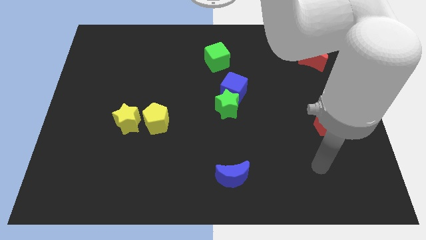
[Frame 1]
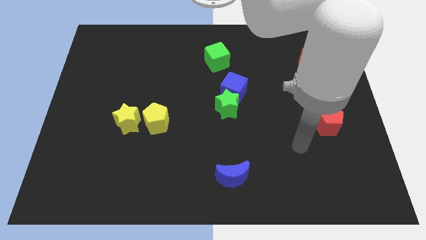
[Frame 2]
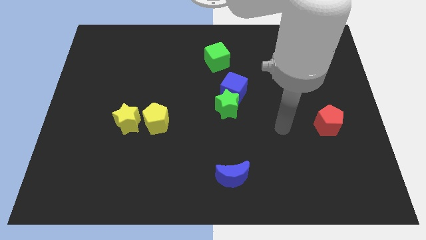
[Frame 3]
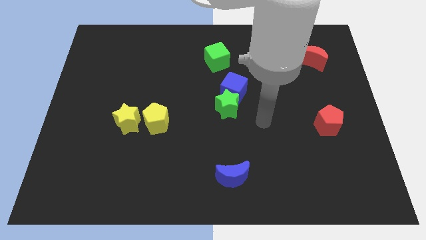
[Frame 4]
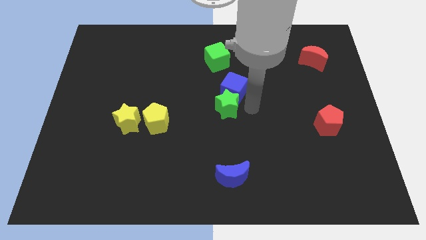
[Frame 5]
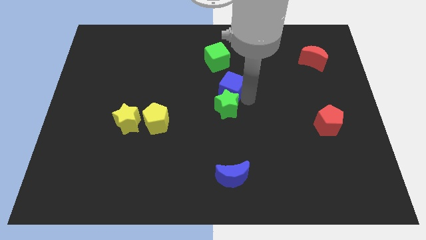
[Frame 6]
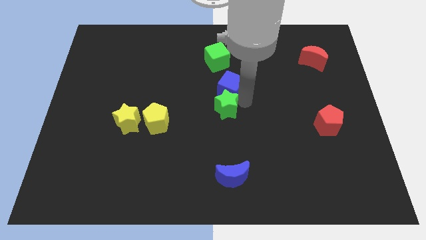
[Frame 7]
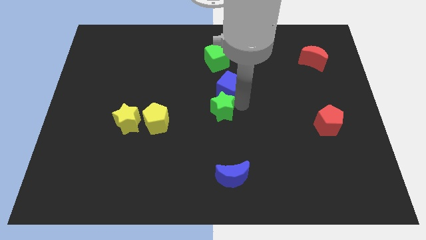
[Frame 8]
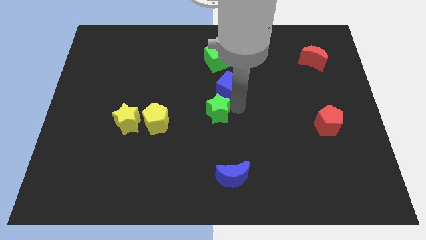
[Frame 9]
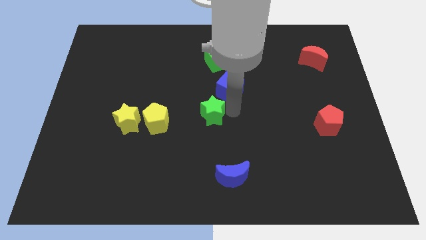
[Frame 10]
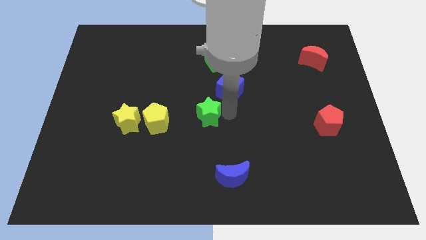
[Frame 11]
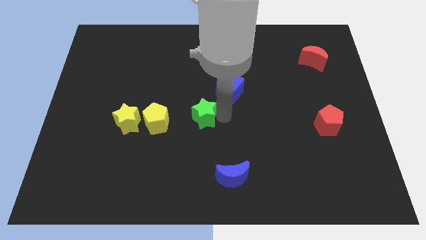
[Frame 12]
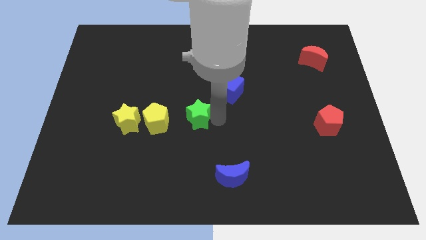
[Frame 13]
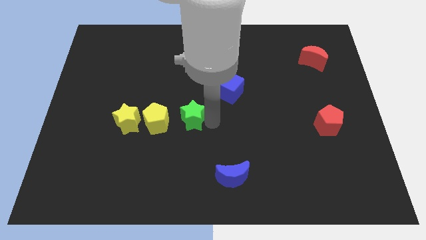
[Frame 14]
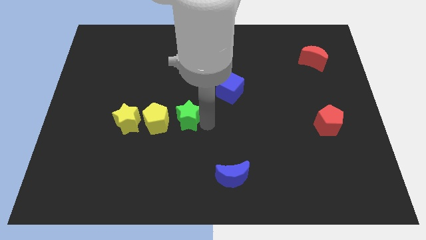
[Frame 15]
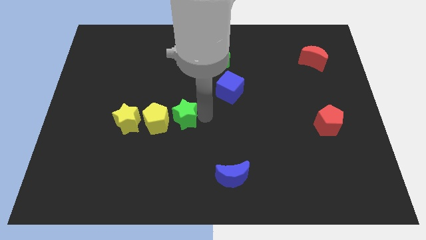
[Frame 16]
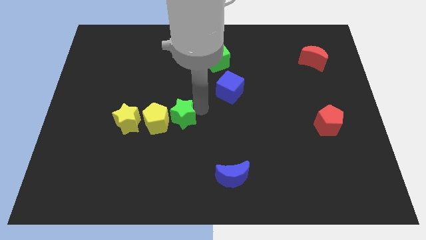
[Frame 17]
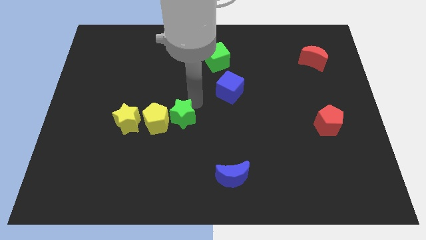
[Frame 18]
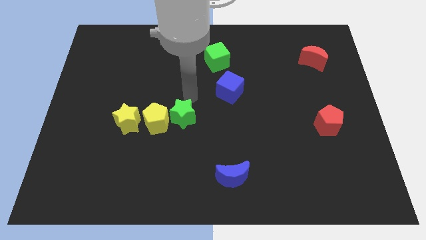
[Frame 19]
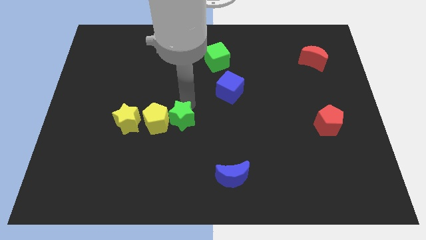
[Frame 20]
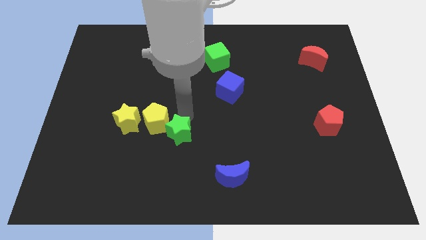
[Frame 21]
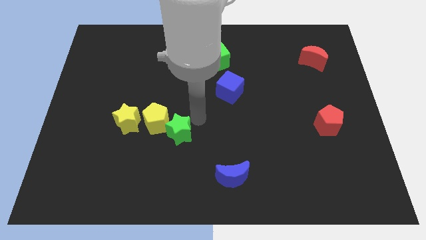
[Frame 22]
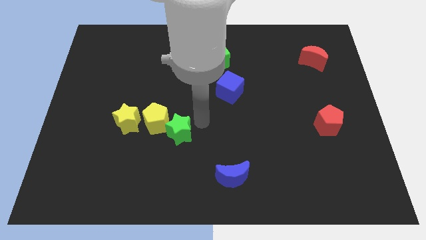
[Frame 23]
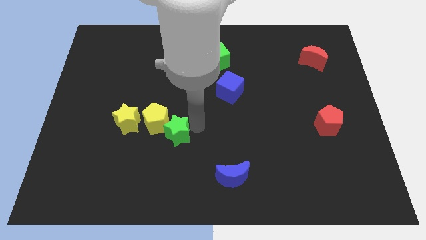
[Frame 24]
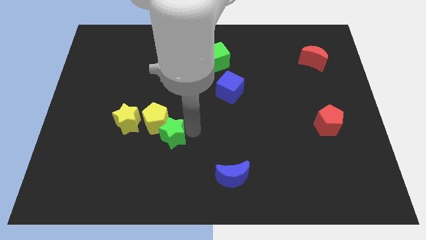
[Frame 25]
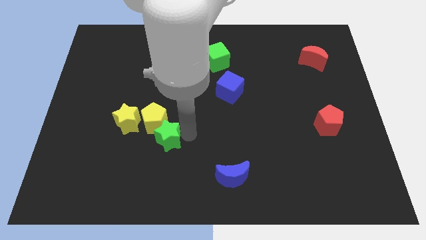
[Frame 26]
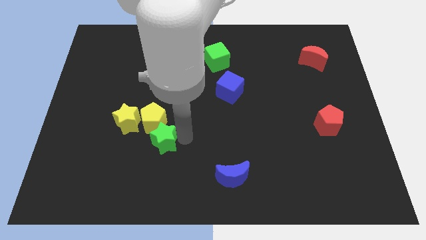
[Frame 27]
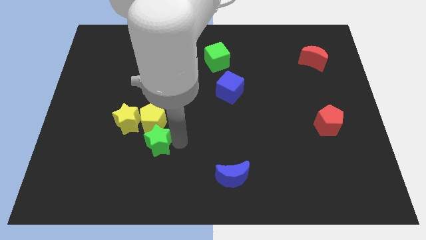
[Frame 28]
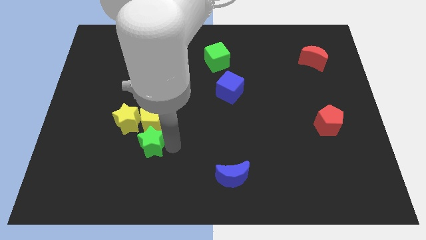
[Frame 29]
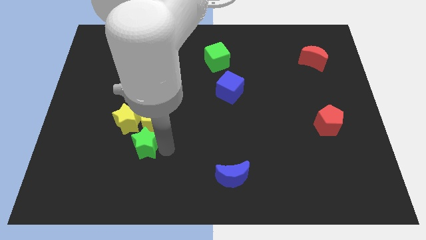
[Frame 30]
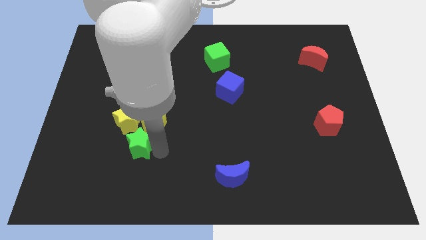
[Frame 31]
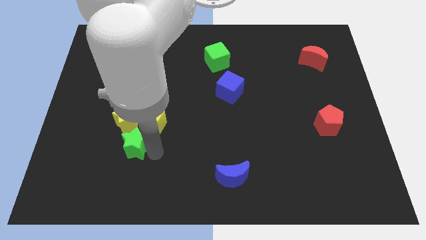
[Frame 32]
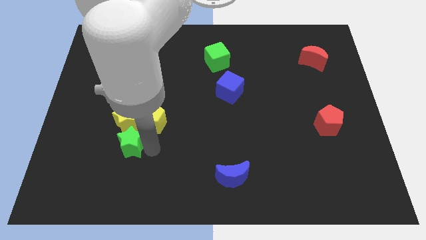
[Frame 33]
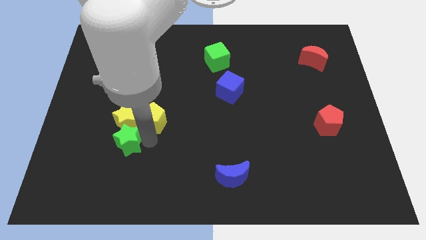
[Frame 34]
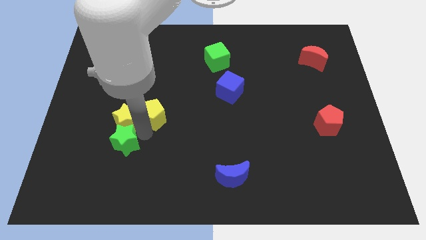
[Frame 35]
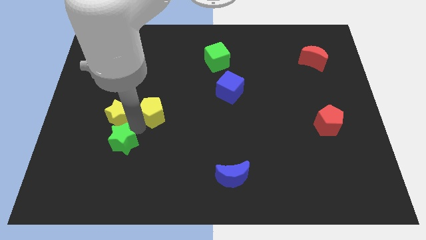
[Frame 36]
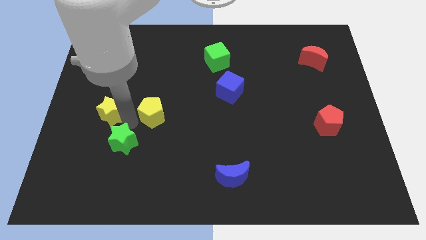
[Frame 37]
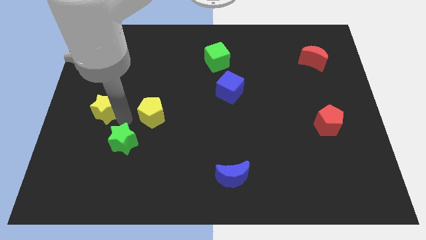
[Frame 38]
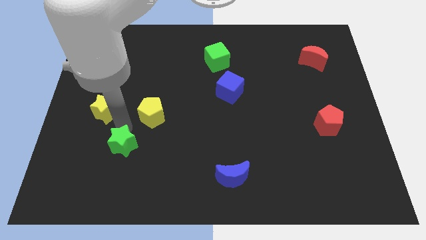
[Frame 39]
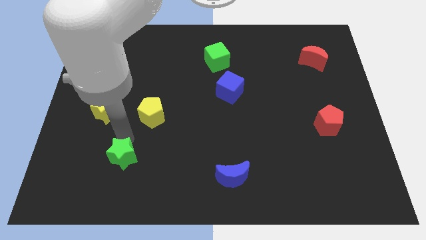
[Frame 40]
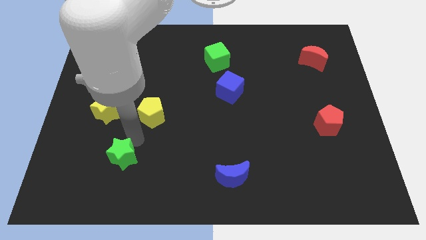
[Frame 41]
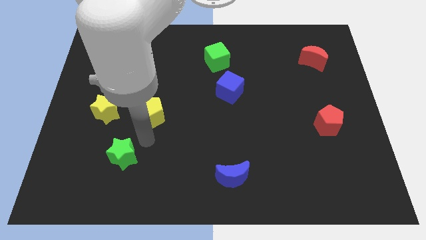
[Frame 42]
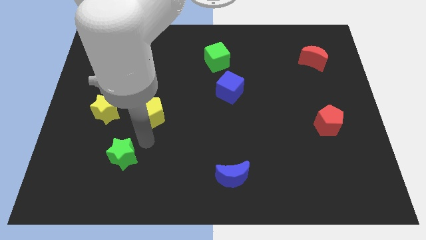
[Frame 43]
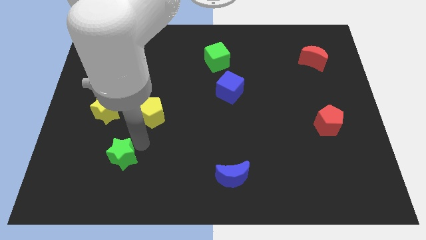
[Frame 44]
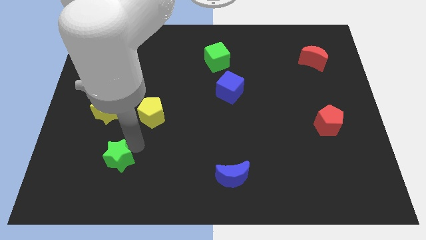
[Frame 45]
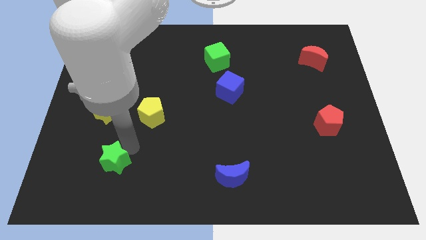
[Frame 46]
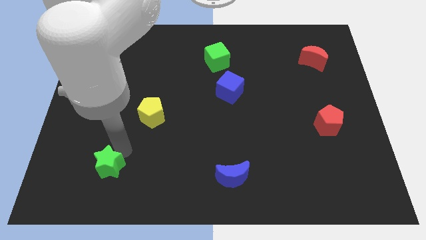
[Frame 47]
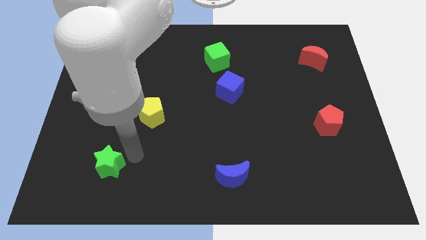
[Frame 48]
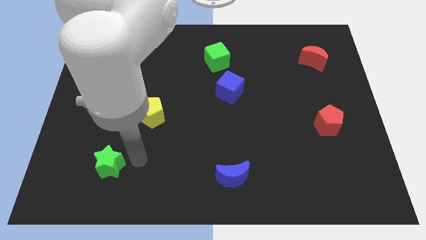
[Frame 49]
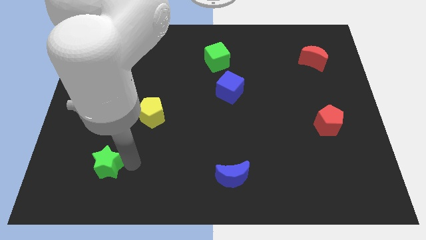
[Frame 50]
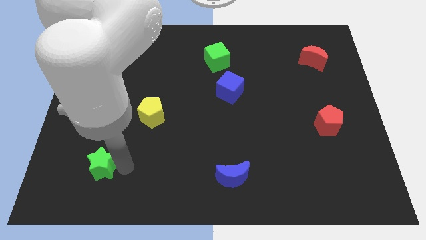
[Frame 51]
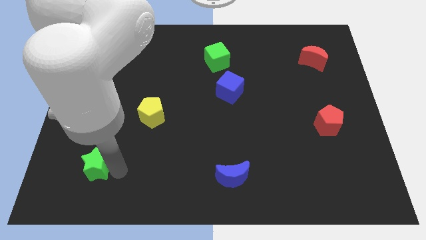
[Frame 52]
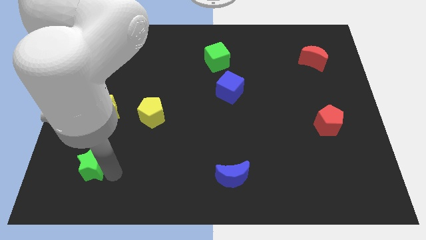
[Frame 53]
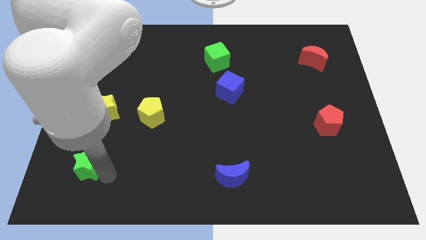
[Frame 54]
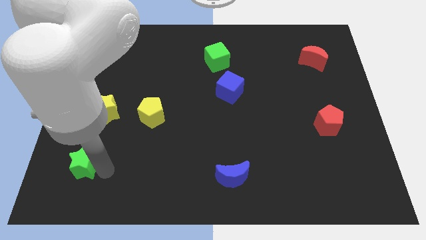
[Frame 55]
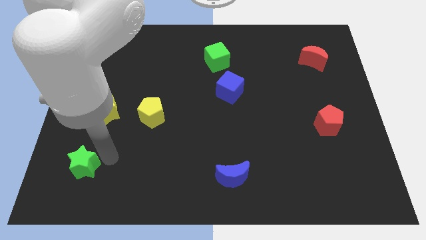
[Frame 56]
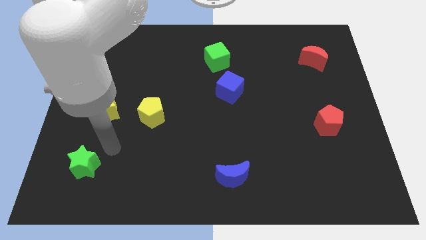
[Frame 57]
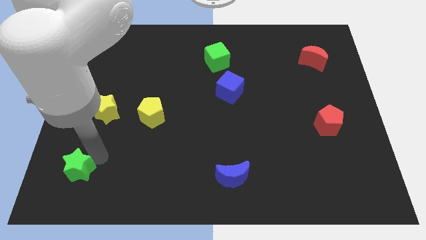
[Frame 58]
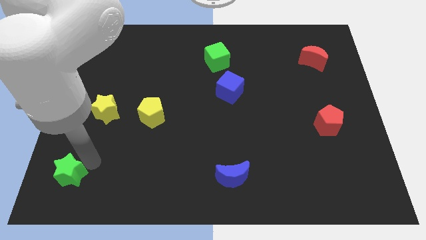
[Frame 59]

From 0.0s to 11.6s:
push the green star to the bottom left of the board

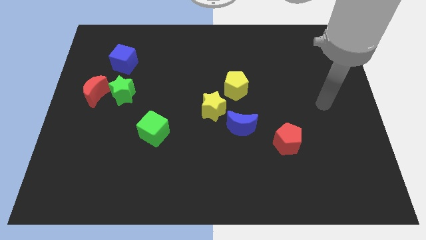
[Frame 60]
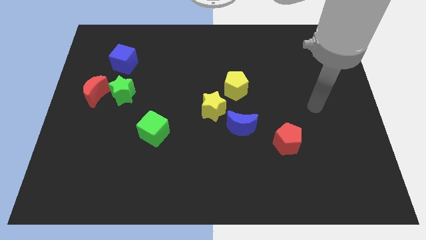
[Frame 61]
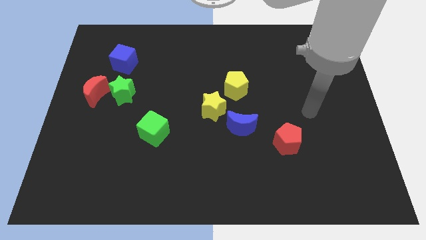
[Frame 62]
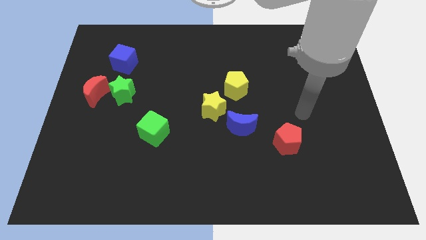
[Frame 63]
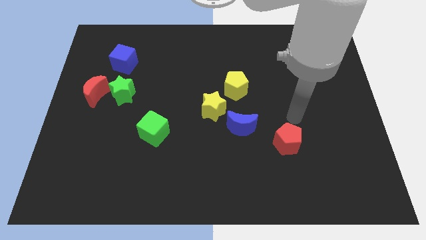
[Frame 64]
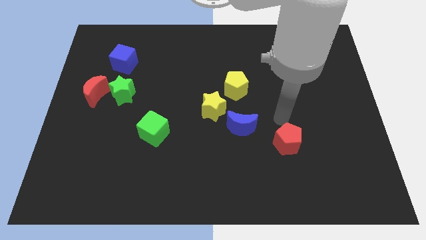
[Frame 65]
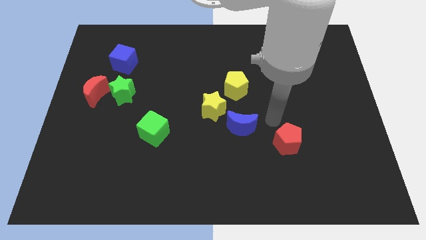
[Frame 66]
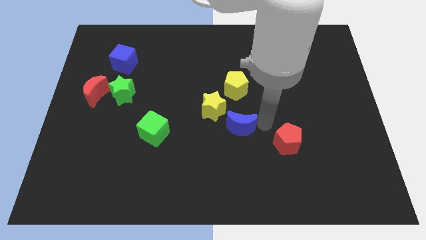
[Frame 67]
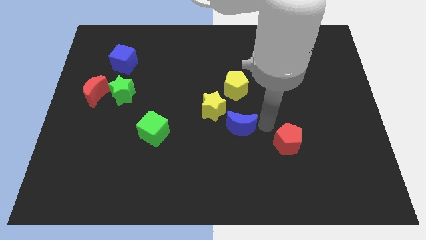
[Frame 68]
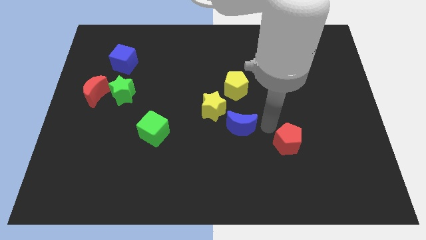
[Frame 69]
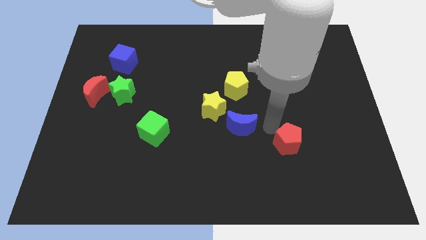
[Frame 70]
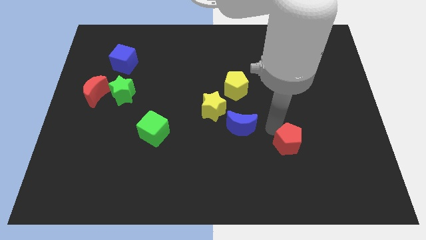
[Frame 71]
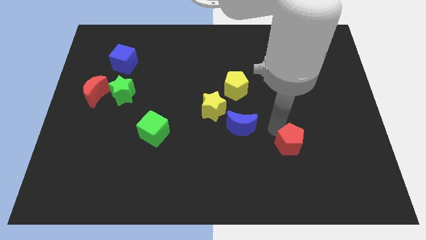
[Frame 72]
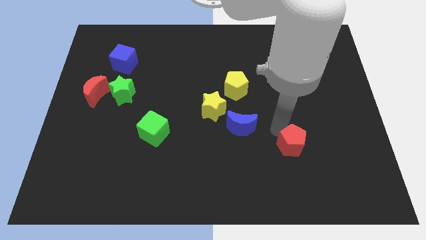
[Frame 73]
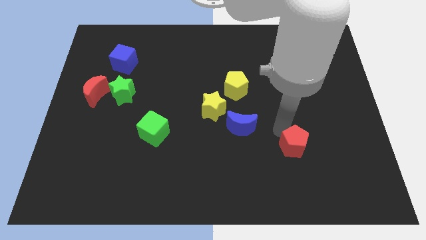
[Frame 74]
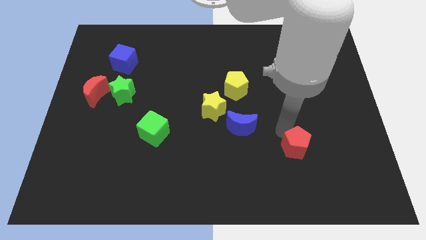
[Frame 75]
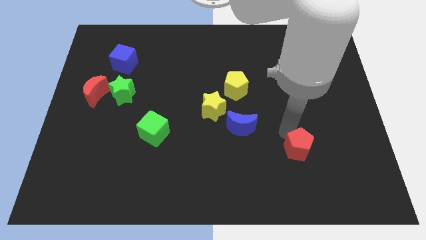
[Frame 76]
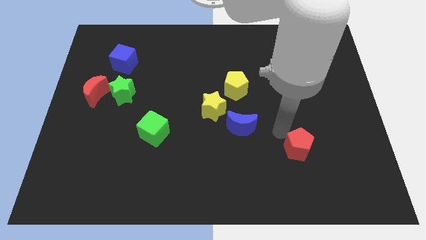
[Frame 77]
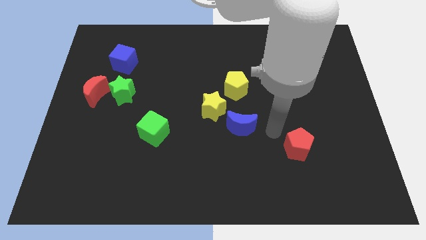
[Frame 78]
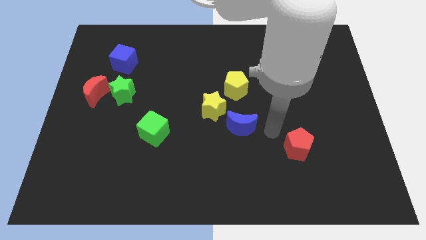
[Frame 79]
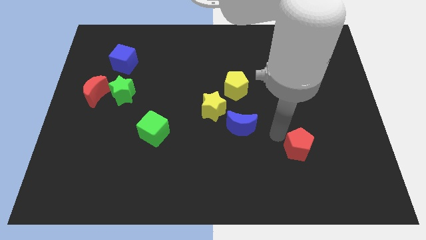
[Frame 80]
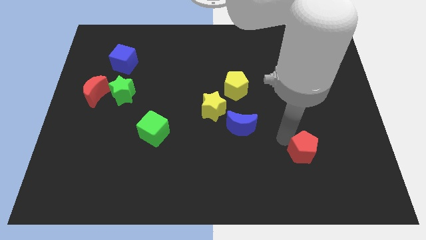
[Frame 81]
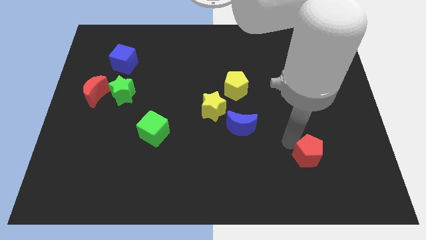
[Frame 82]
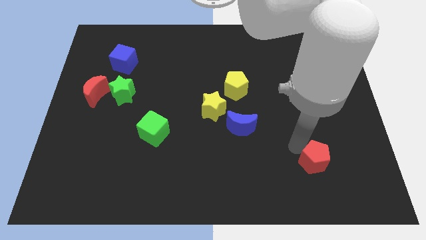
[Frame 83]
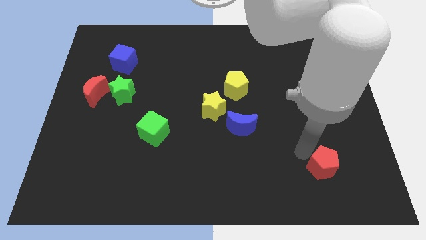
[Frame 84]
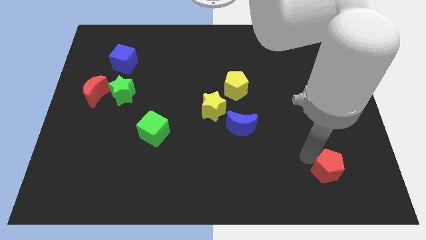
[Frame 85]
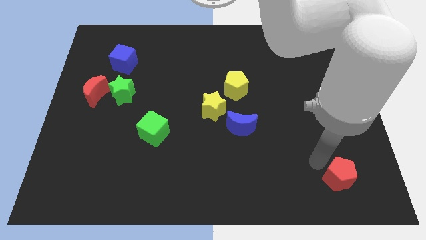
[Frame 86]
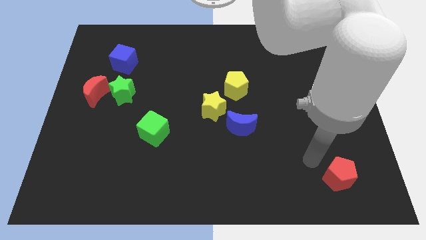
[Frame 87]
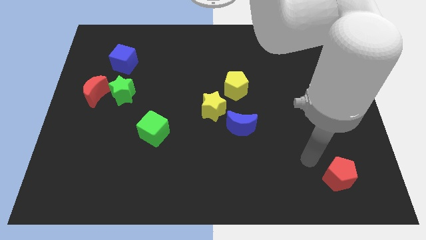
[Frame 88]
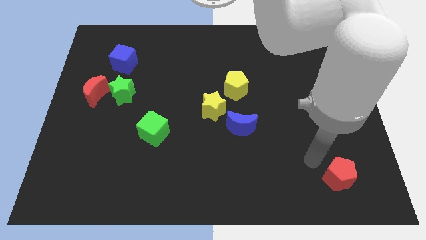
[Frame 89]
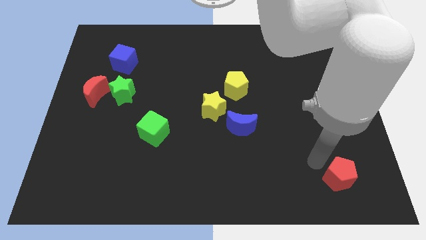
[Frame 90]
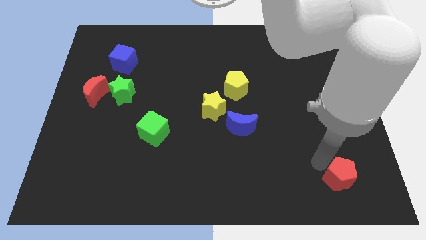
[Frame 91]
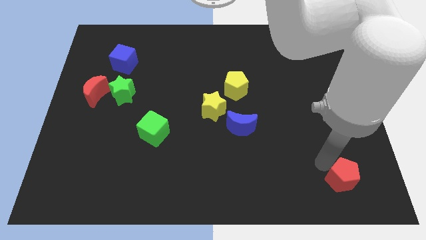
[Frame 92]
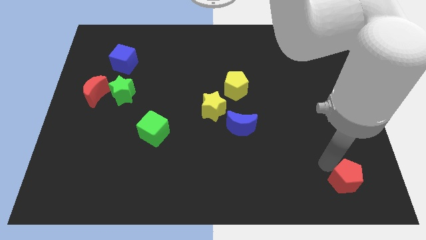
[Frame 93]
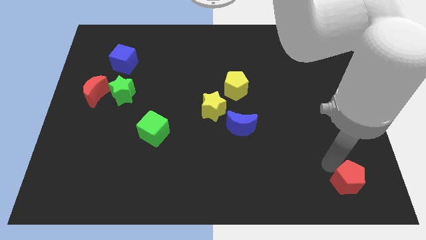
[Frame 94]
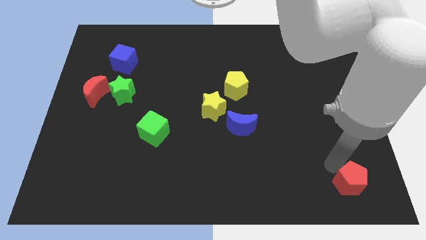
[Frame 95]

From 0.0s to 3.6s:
move the red pentagon to the lower right corner
